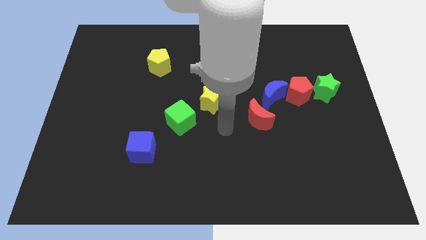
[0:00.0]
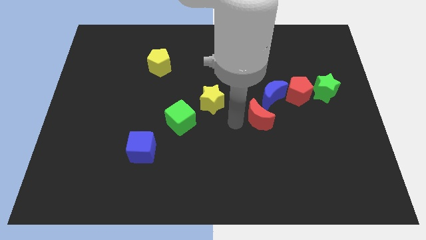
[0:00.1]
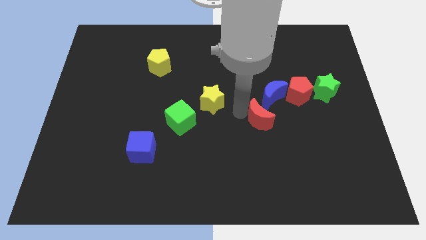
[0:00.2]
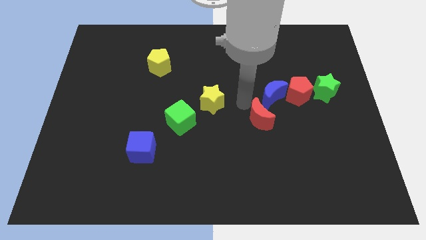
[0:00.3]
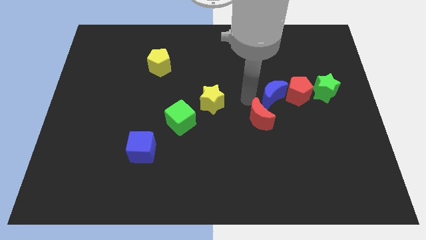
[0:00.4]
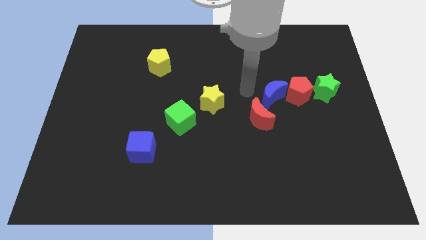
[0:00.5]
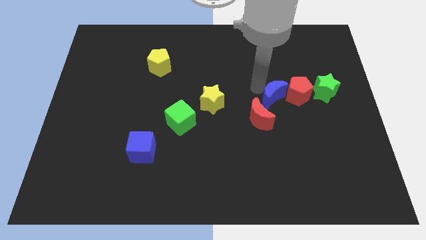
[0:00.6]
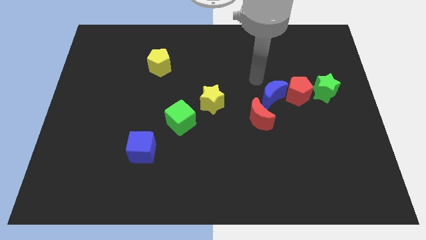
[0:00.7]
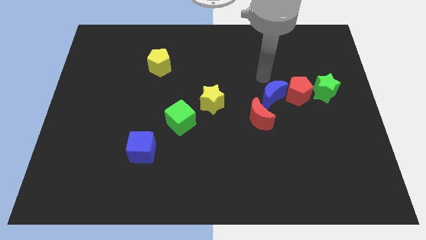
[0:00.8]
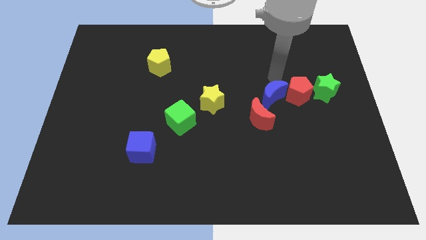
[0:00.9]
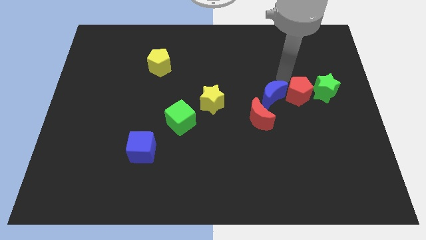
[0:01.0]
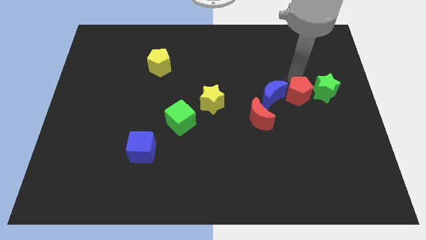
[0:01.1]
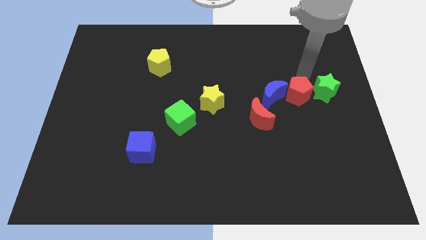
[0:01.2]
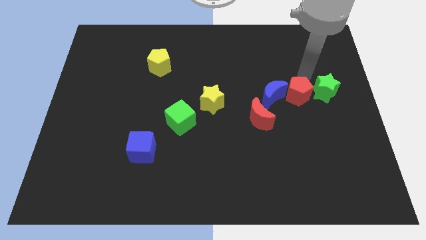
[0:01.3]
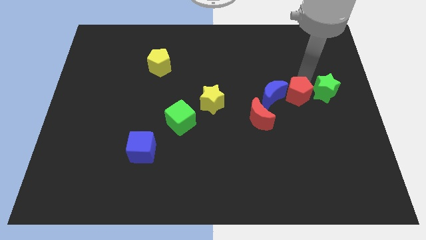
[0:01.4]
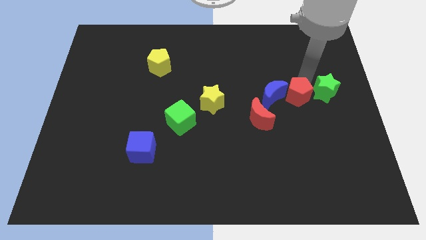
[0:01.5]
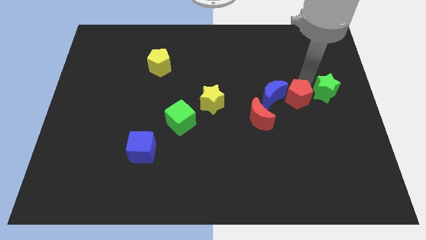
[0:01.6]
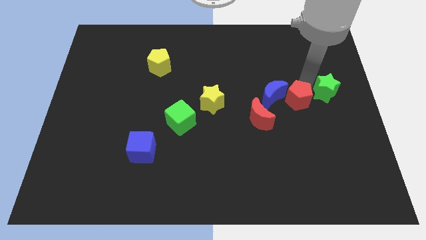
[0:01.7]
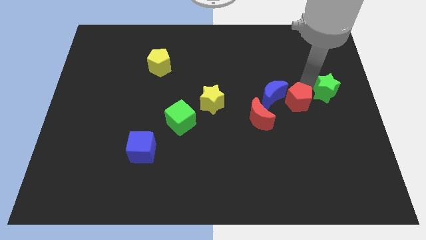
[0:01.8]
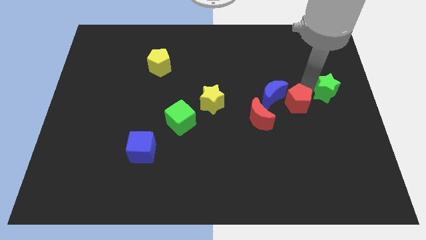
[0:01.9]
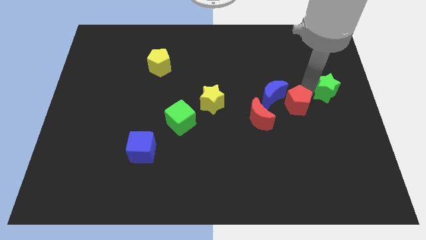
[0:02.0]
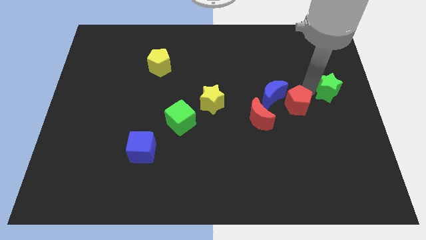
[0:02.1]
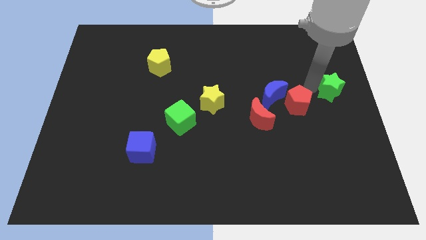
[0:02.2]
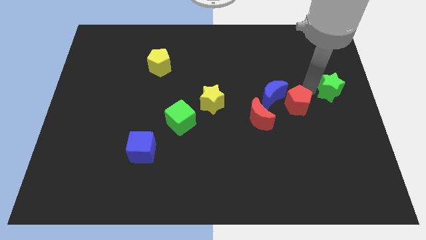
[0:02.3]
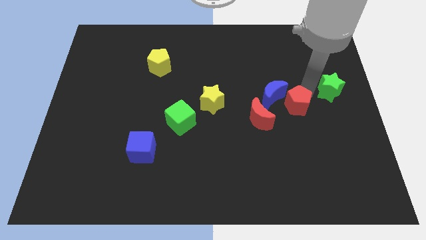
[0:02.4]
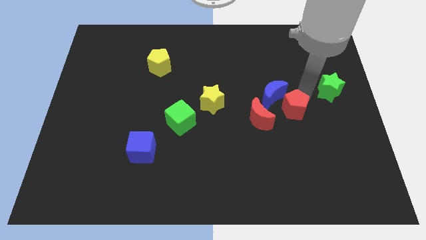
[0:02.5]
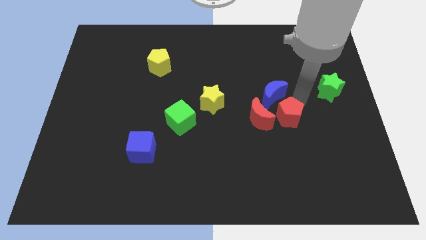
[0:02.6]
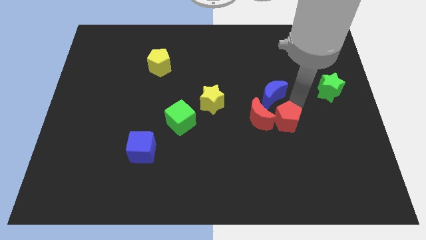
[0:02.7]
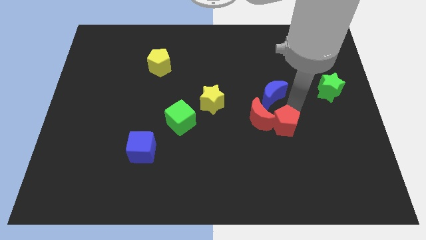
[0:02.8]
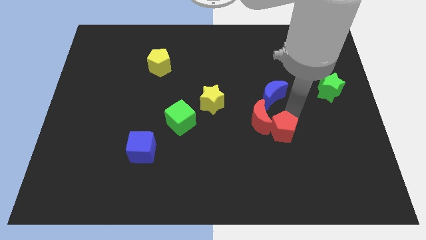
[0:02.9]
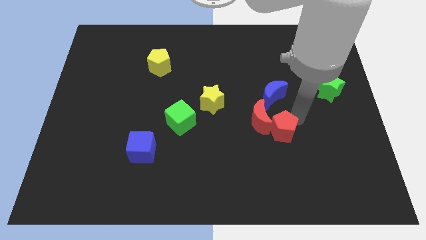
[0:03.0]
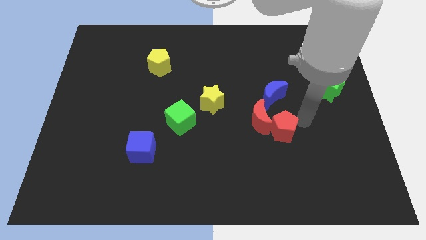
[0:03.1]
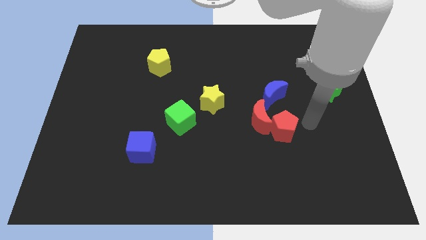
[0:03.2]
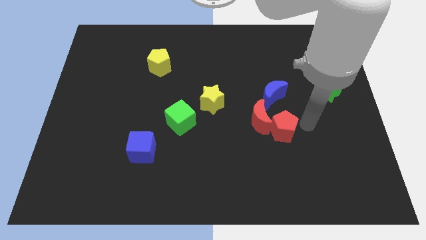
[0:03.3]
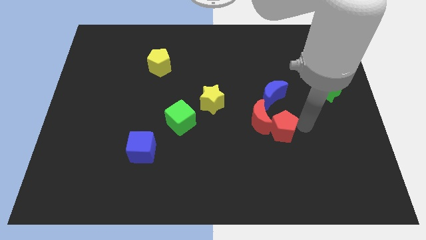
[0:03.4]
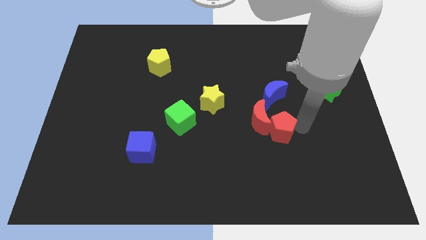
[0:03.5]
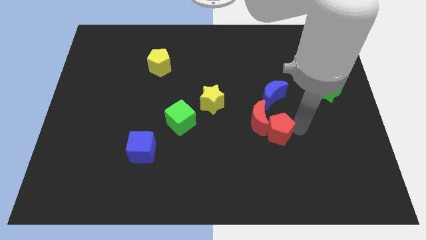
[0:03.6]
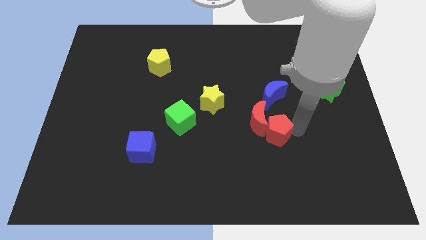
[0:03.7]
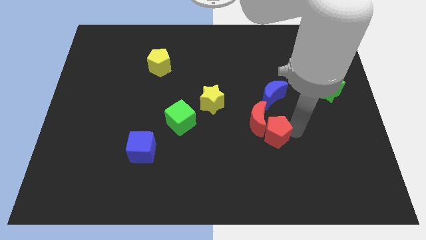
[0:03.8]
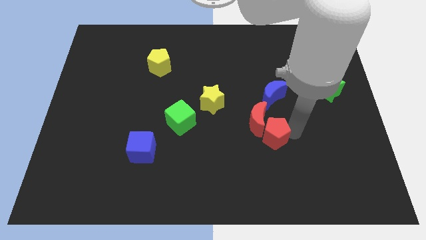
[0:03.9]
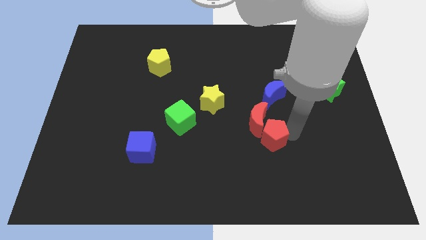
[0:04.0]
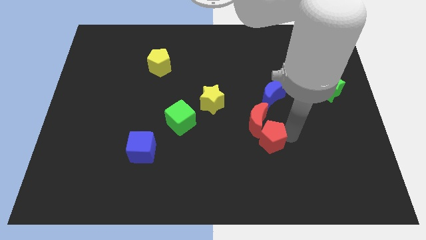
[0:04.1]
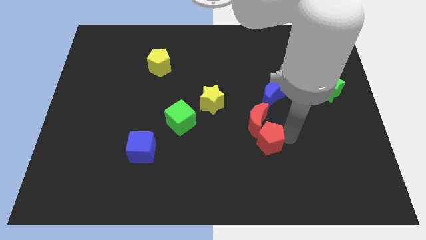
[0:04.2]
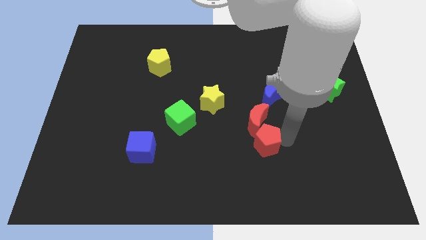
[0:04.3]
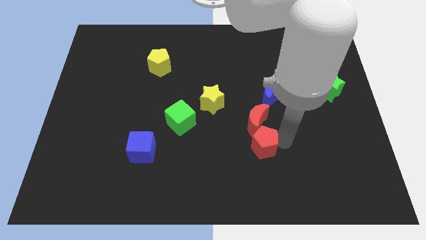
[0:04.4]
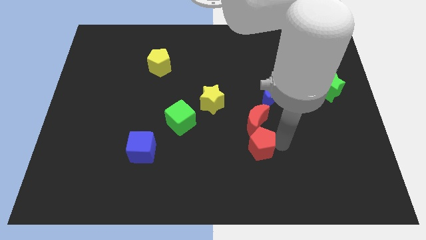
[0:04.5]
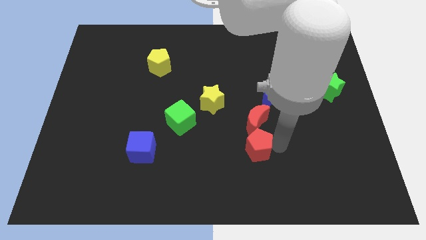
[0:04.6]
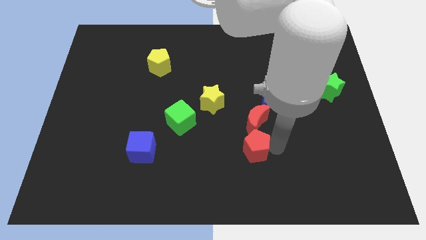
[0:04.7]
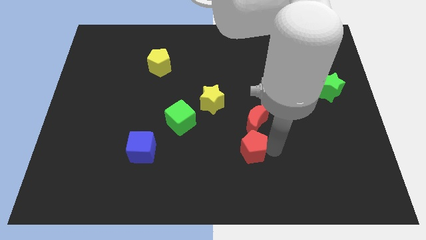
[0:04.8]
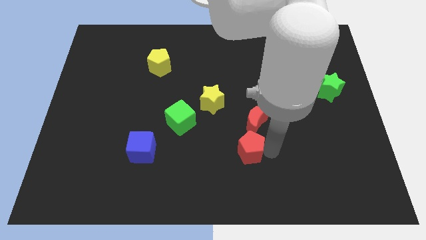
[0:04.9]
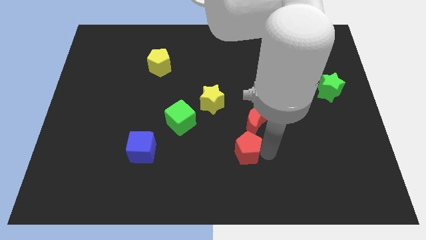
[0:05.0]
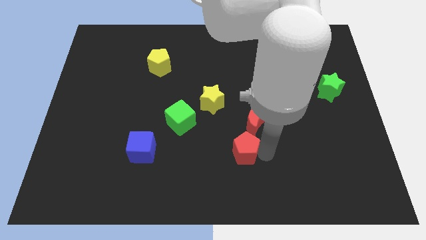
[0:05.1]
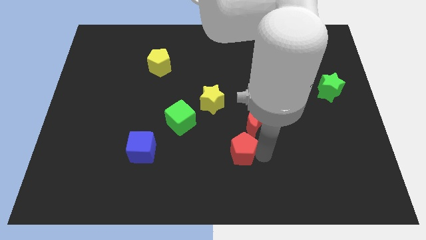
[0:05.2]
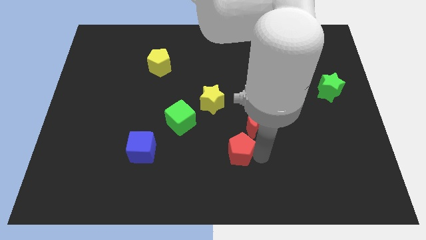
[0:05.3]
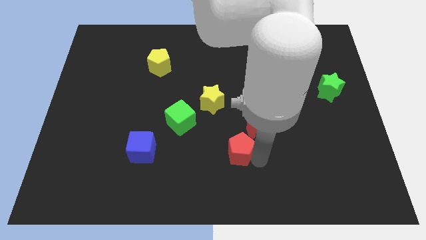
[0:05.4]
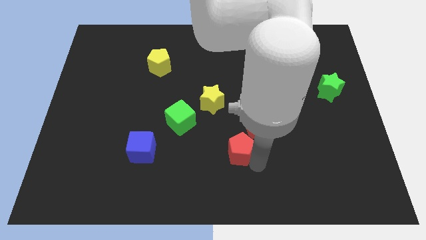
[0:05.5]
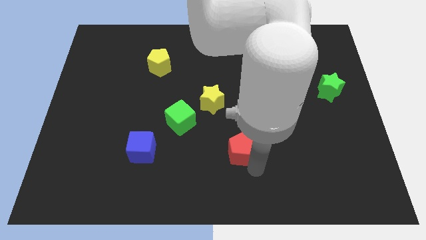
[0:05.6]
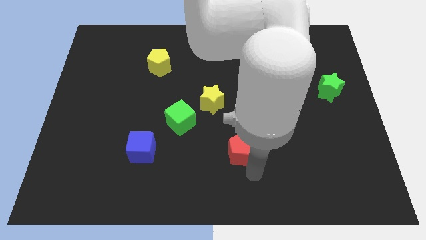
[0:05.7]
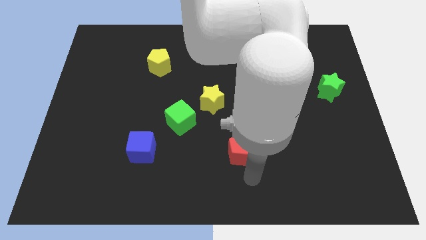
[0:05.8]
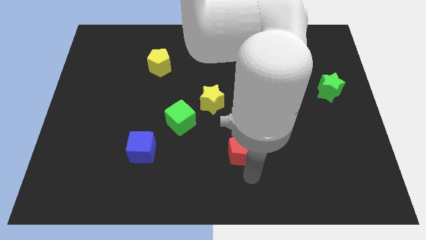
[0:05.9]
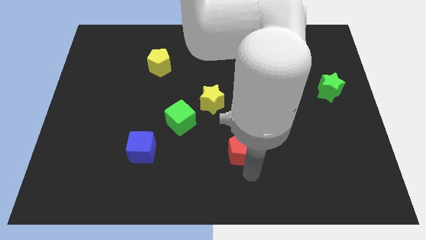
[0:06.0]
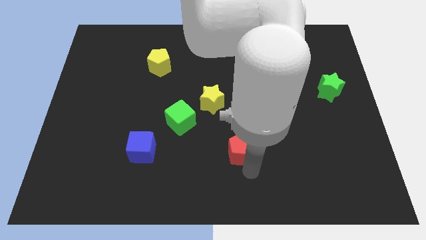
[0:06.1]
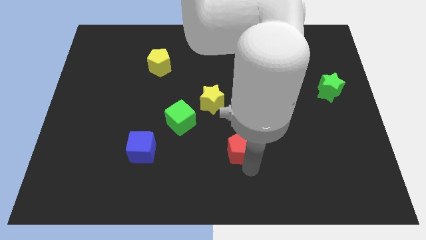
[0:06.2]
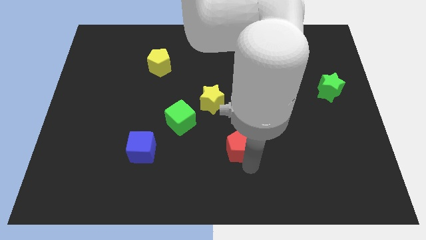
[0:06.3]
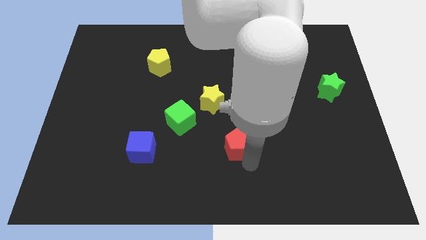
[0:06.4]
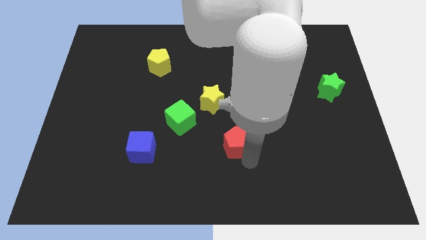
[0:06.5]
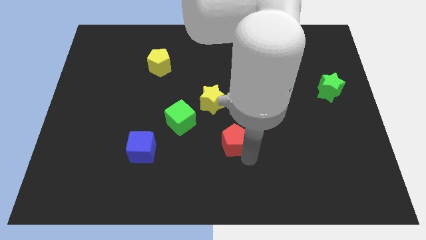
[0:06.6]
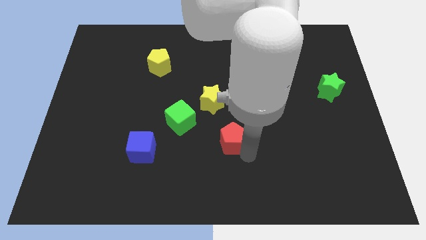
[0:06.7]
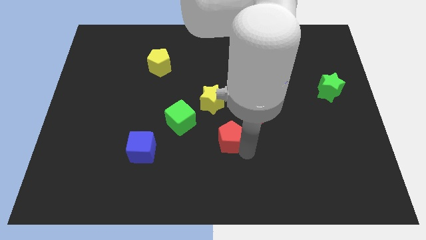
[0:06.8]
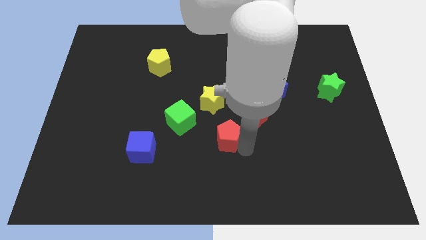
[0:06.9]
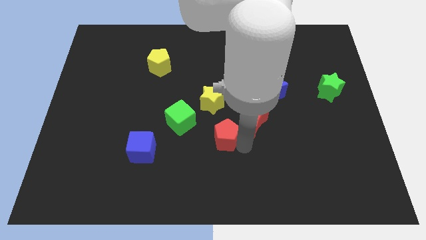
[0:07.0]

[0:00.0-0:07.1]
slide the red pentagon diagonally down and to the right of the green cube
